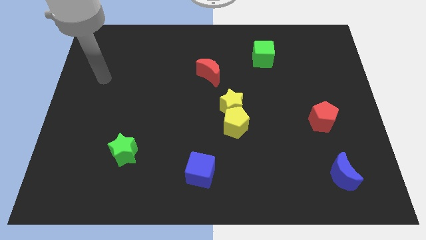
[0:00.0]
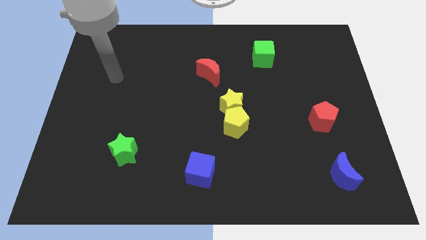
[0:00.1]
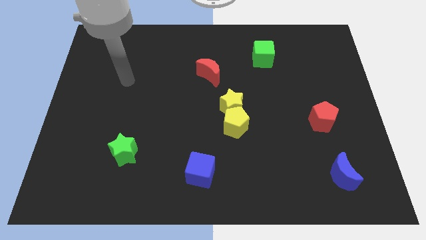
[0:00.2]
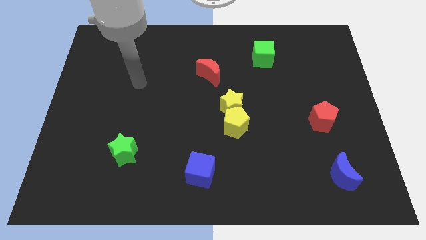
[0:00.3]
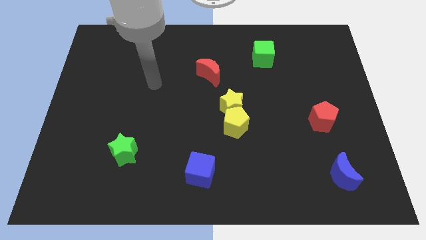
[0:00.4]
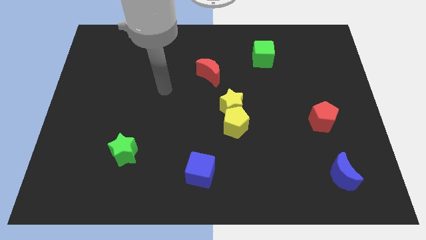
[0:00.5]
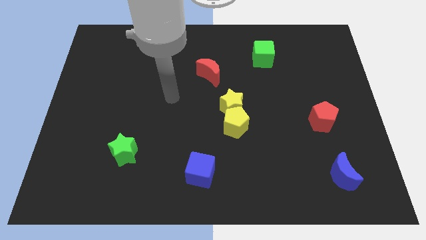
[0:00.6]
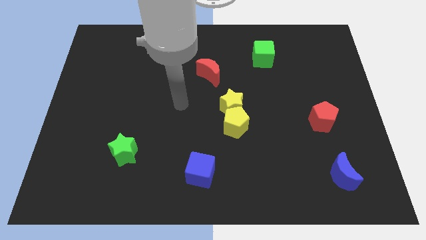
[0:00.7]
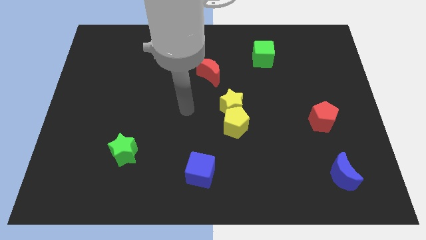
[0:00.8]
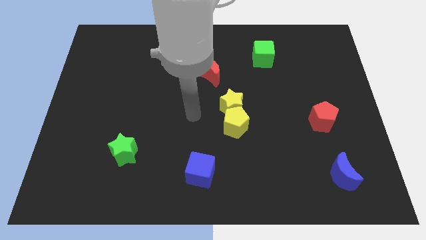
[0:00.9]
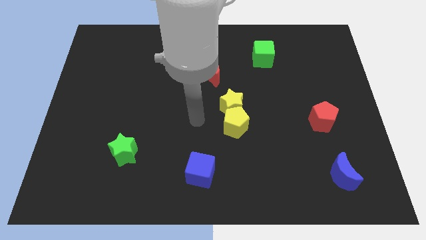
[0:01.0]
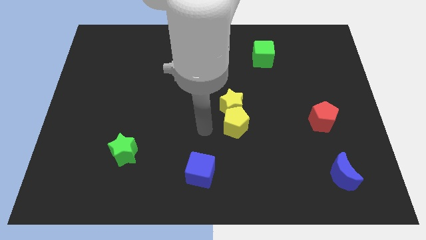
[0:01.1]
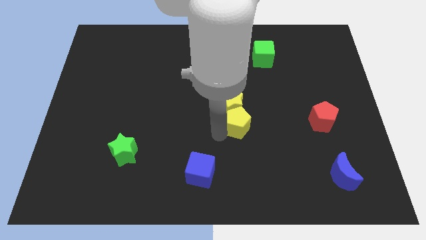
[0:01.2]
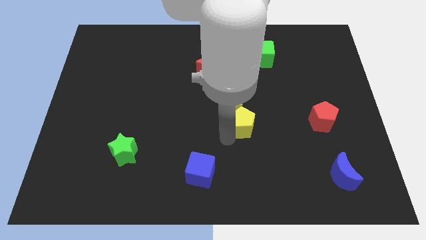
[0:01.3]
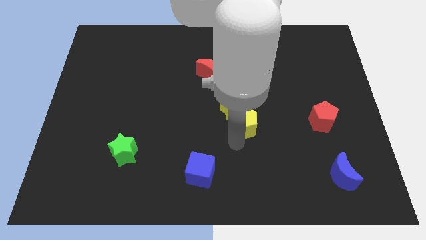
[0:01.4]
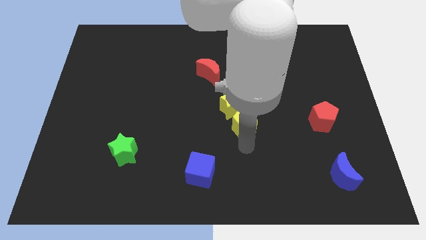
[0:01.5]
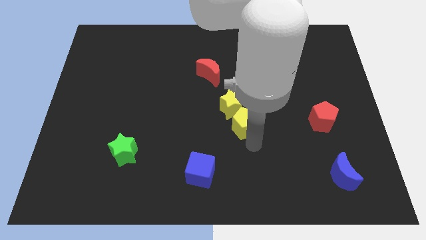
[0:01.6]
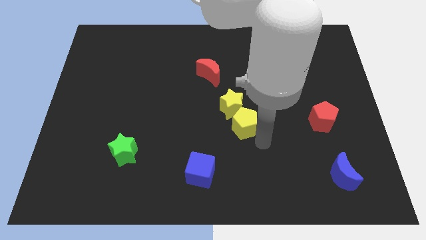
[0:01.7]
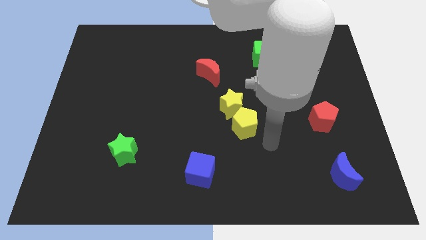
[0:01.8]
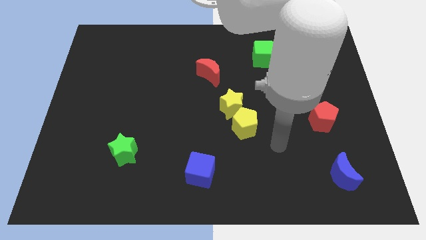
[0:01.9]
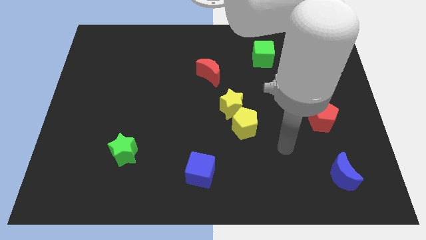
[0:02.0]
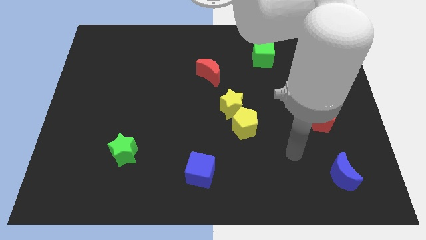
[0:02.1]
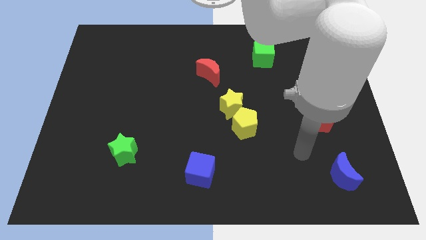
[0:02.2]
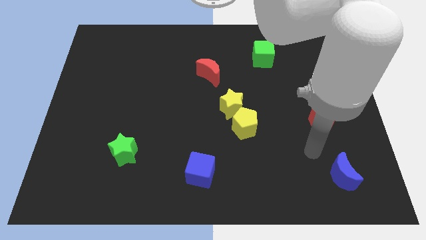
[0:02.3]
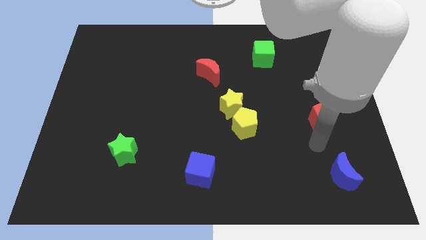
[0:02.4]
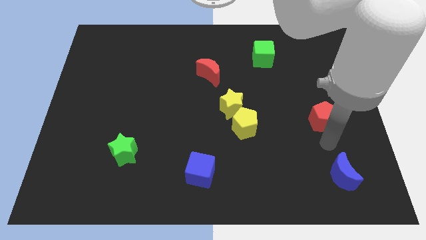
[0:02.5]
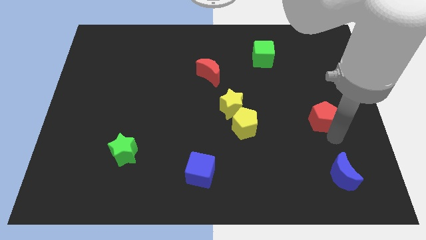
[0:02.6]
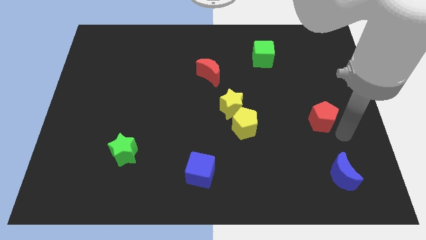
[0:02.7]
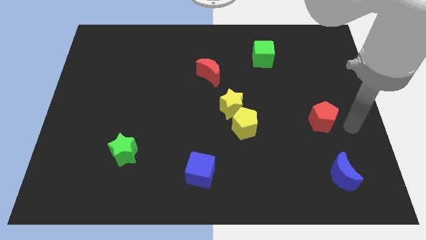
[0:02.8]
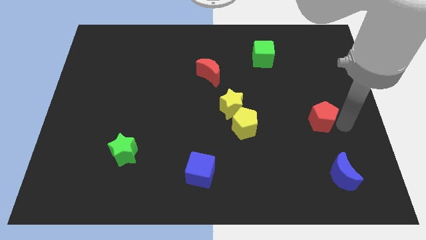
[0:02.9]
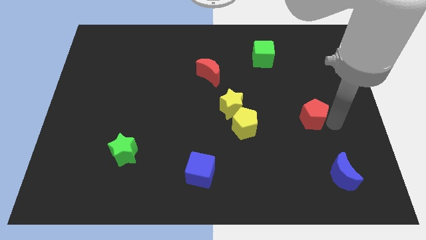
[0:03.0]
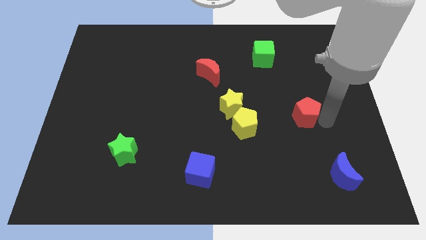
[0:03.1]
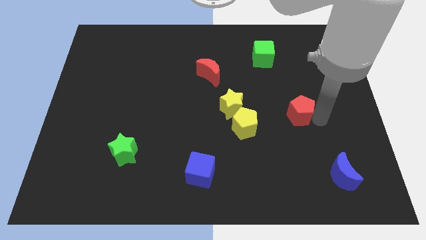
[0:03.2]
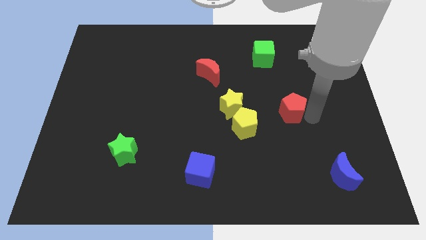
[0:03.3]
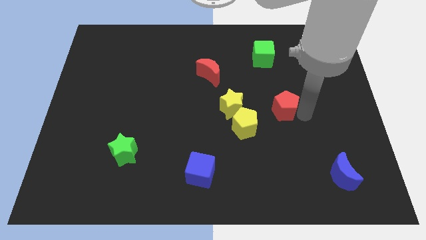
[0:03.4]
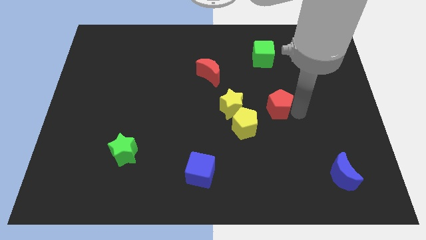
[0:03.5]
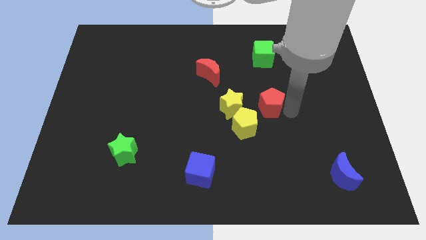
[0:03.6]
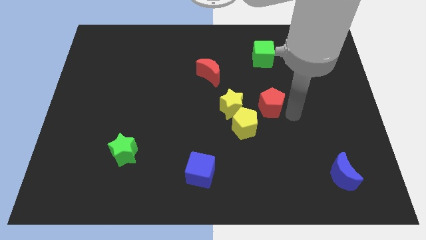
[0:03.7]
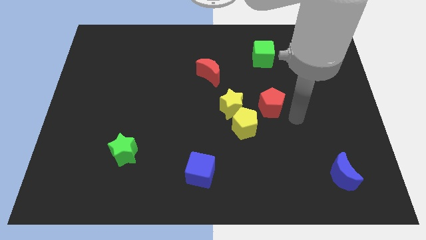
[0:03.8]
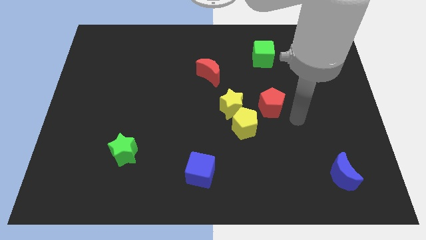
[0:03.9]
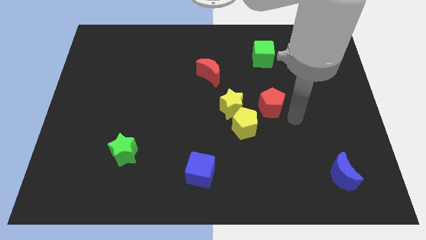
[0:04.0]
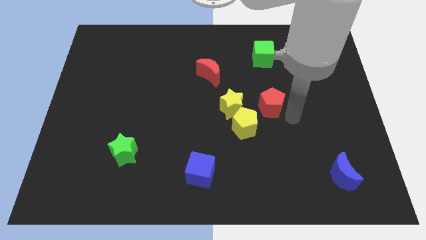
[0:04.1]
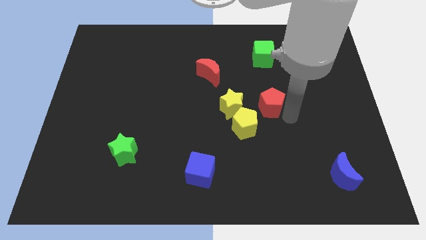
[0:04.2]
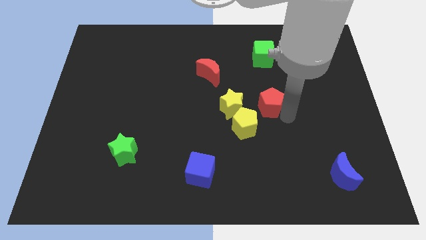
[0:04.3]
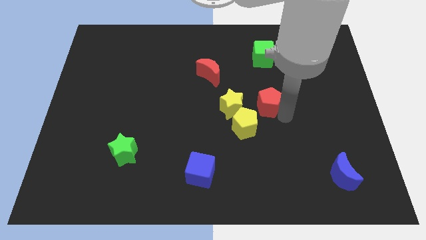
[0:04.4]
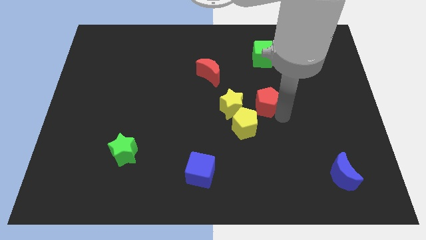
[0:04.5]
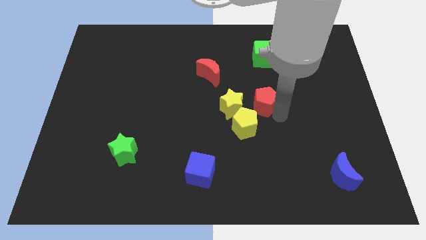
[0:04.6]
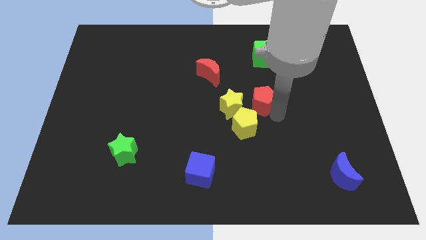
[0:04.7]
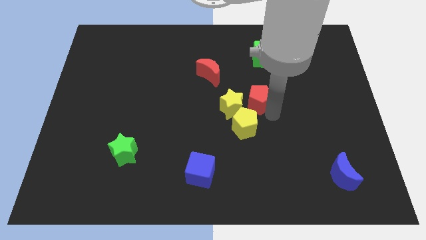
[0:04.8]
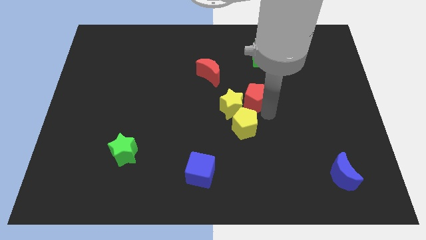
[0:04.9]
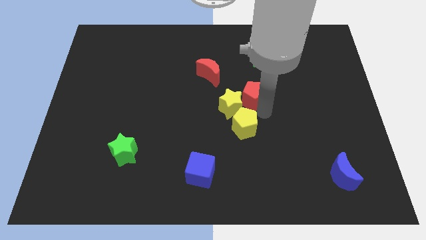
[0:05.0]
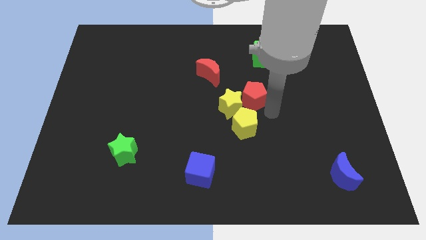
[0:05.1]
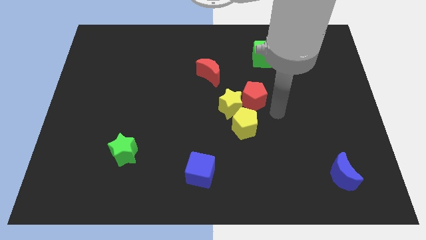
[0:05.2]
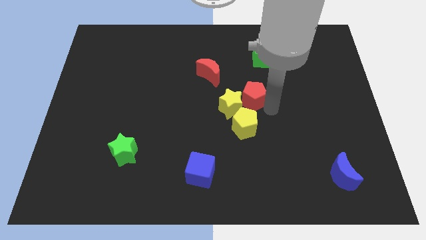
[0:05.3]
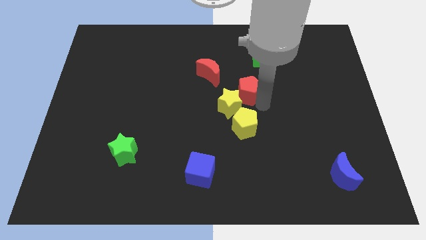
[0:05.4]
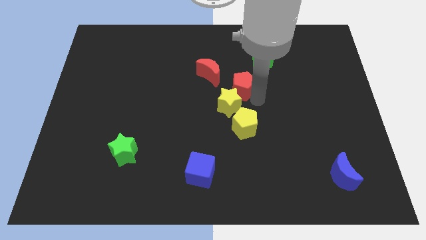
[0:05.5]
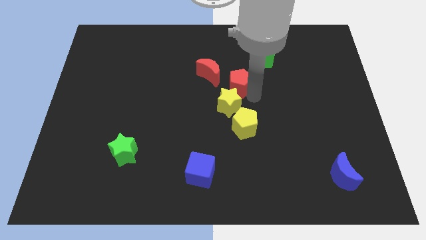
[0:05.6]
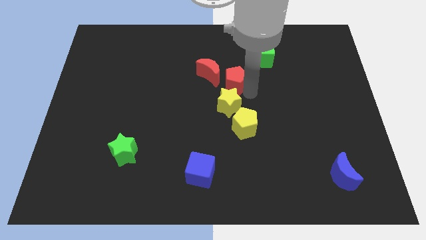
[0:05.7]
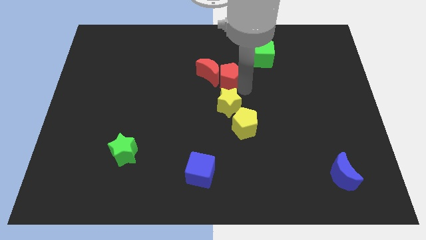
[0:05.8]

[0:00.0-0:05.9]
move the red pentagon towards the red moon

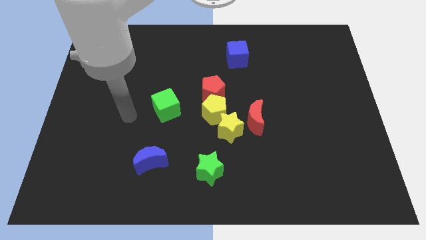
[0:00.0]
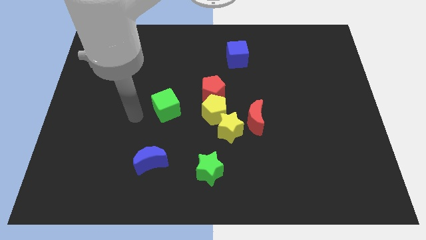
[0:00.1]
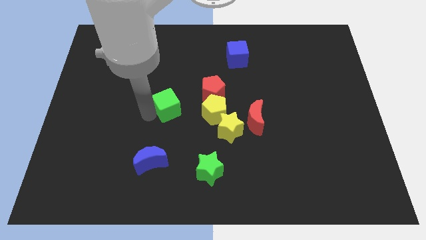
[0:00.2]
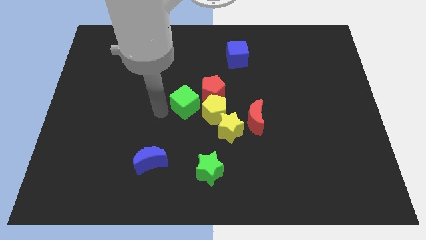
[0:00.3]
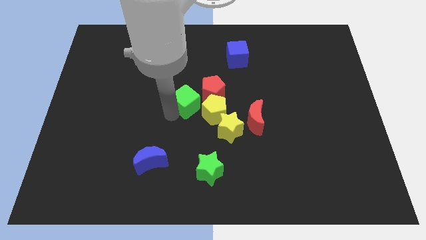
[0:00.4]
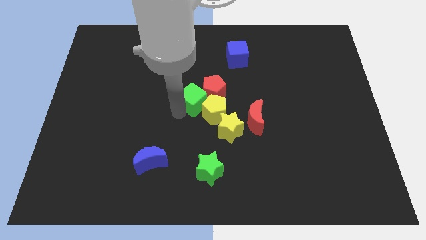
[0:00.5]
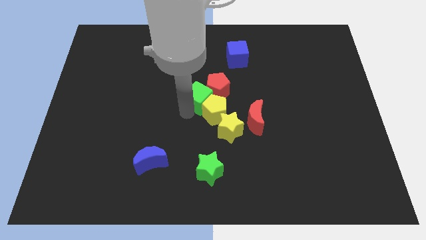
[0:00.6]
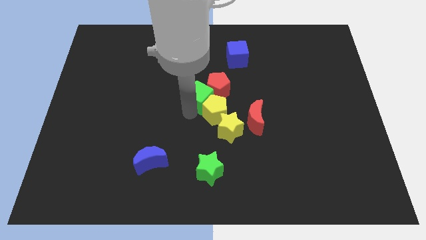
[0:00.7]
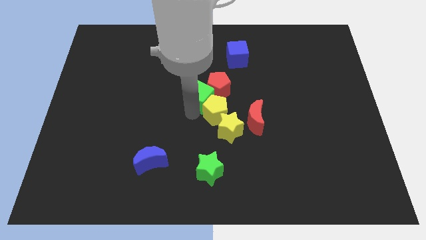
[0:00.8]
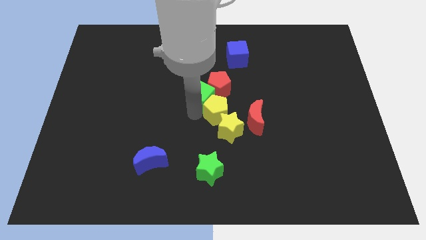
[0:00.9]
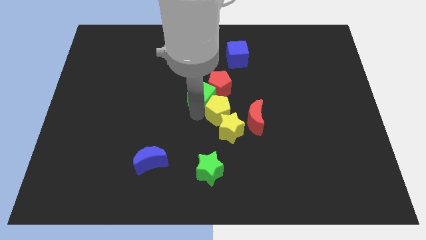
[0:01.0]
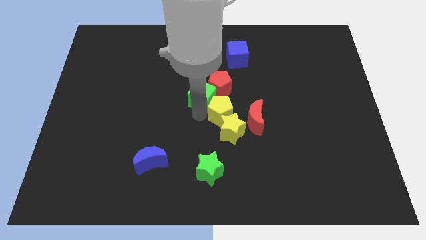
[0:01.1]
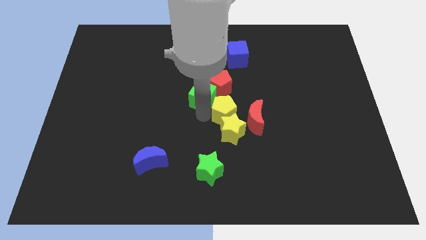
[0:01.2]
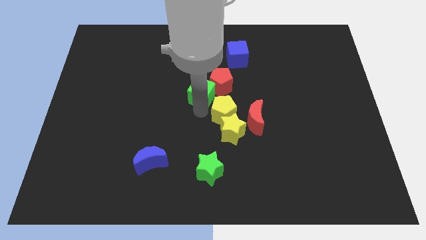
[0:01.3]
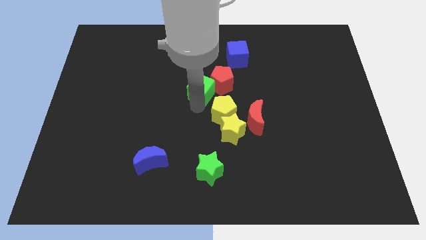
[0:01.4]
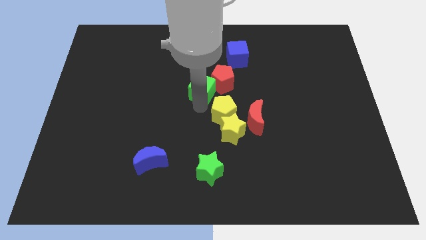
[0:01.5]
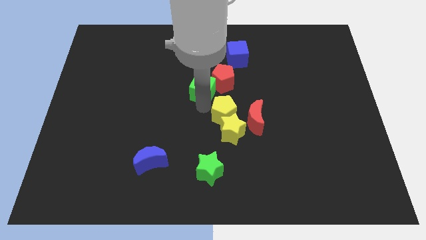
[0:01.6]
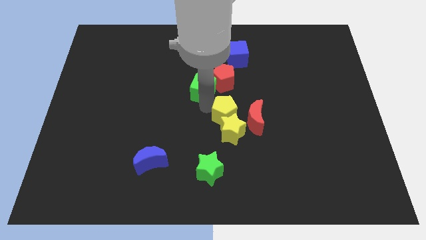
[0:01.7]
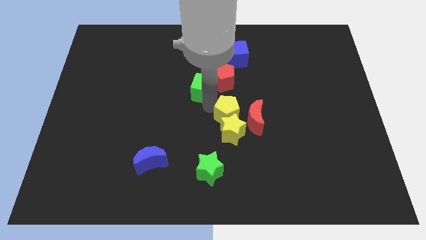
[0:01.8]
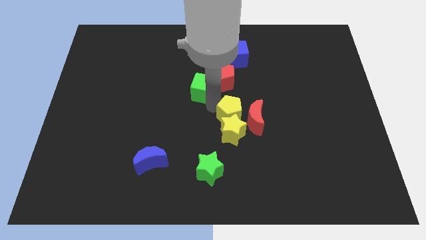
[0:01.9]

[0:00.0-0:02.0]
put the yellow pentagon next to the red moon

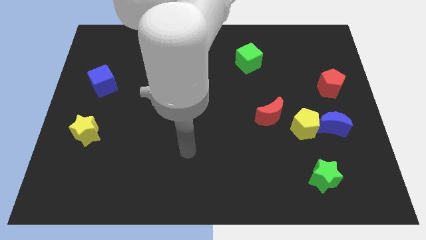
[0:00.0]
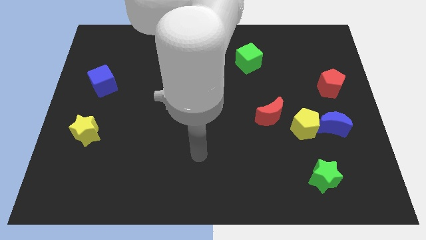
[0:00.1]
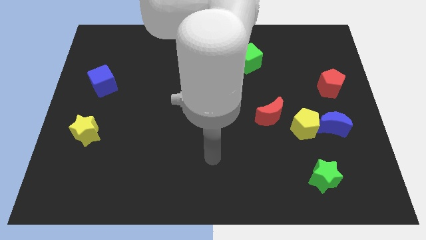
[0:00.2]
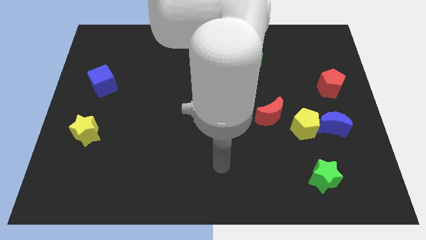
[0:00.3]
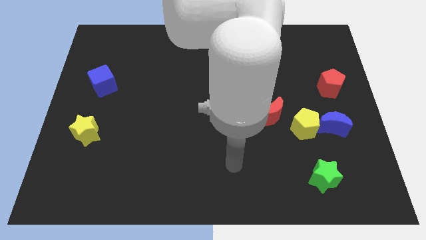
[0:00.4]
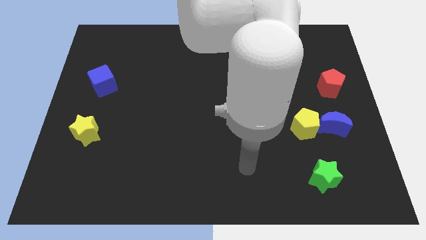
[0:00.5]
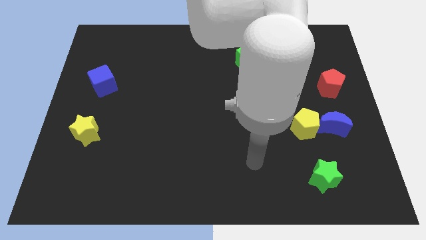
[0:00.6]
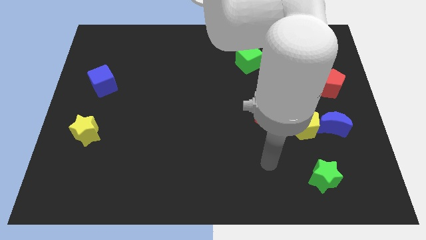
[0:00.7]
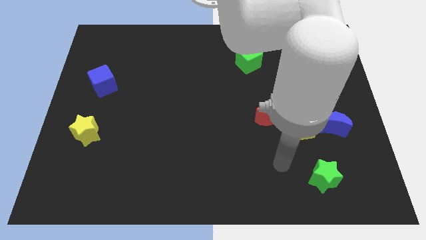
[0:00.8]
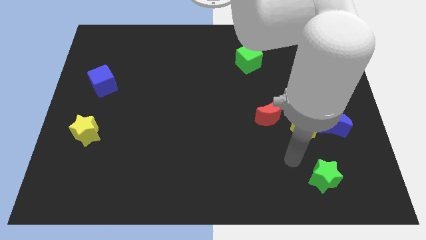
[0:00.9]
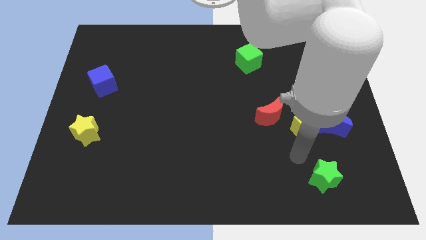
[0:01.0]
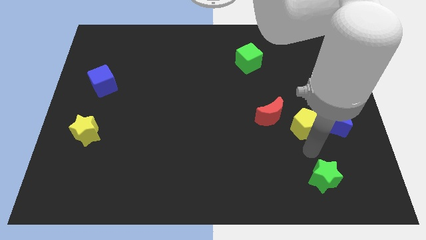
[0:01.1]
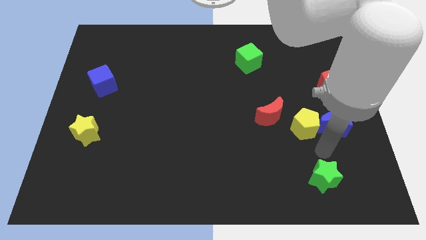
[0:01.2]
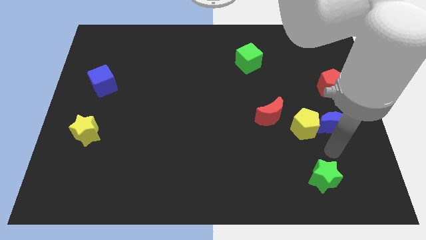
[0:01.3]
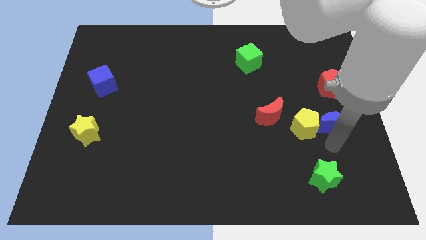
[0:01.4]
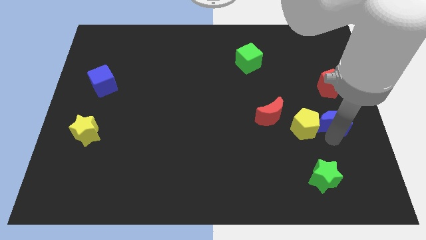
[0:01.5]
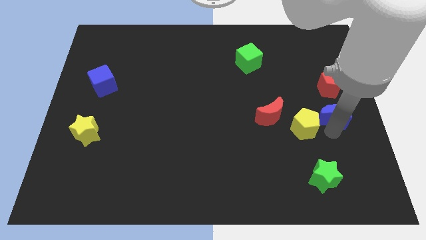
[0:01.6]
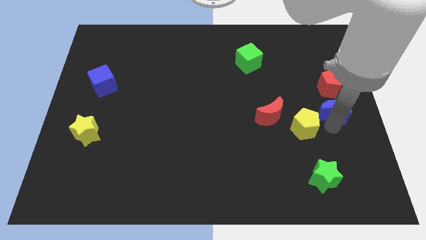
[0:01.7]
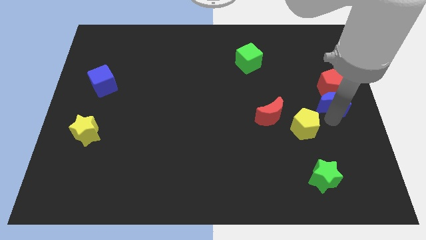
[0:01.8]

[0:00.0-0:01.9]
slide the blue moon to the red pentagon
